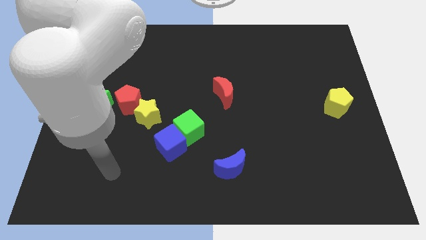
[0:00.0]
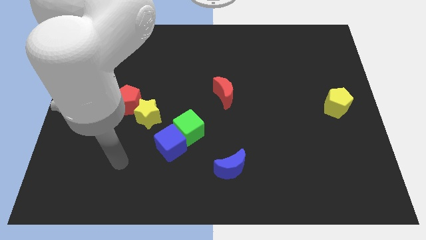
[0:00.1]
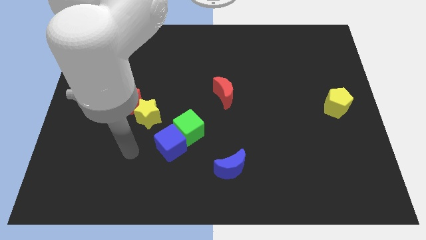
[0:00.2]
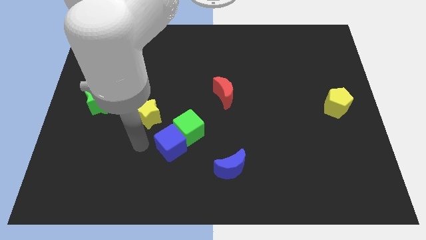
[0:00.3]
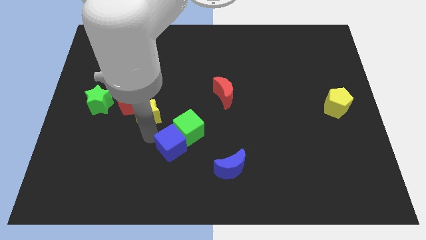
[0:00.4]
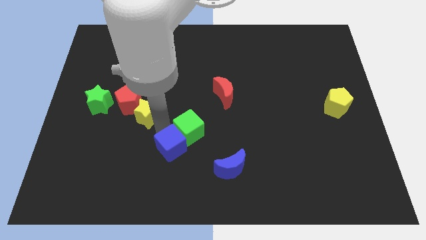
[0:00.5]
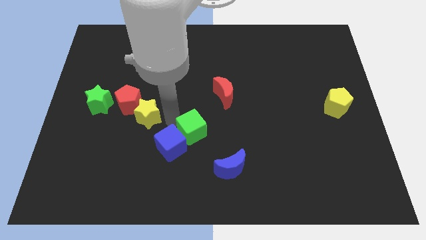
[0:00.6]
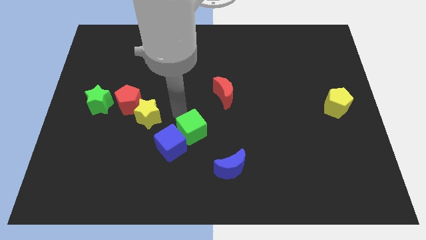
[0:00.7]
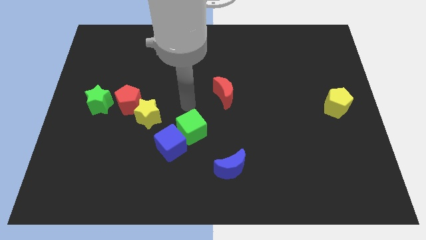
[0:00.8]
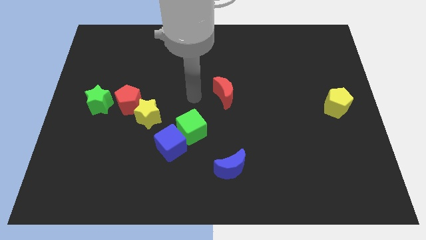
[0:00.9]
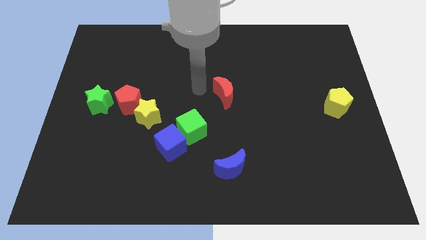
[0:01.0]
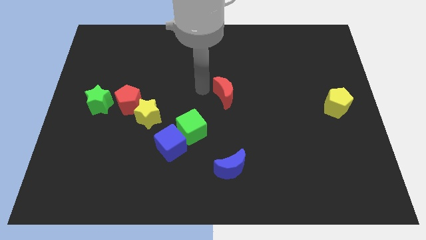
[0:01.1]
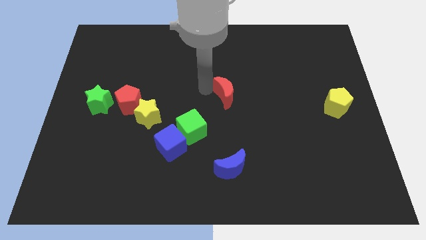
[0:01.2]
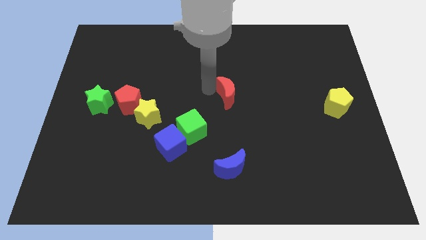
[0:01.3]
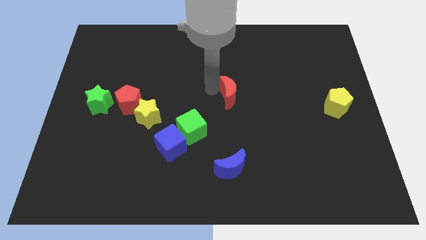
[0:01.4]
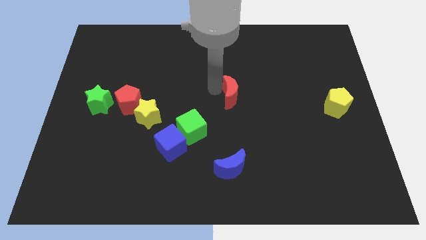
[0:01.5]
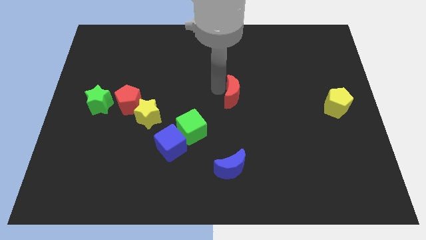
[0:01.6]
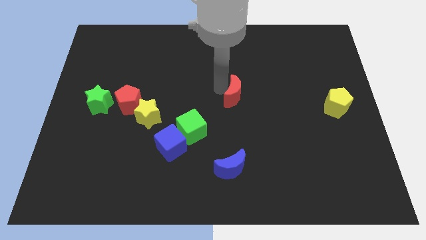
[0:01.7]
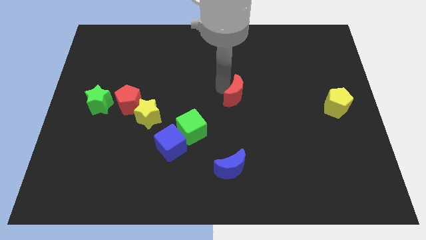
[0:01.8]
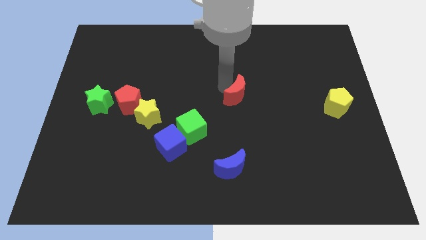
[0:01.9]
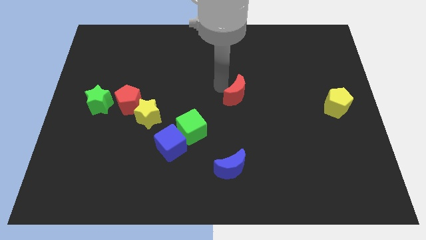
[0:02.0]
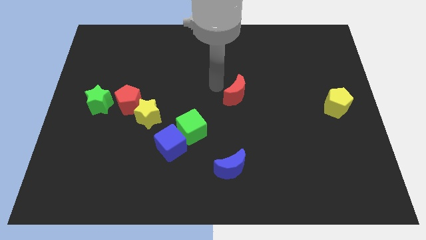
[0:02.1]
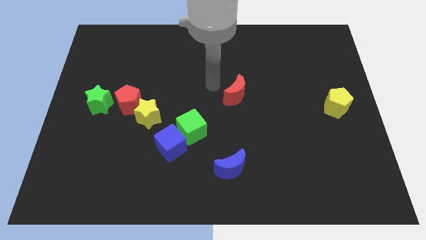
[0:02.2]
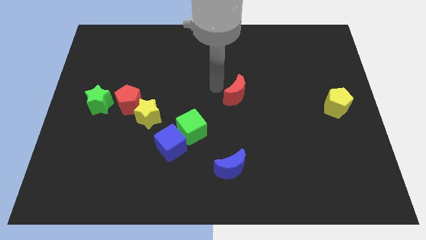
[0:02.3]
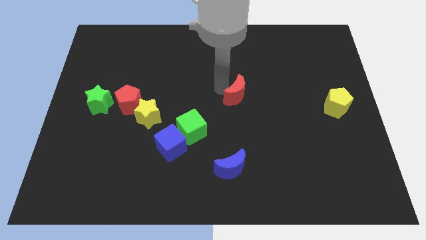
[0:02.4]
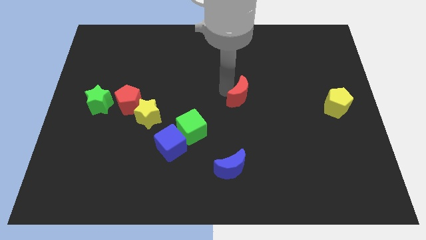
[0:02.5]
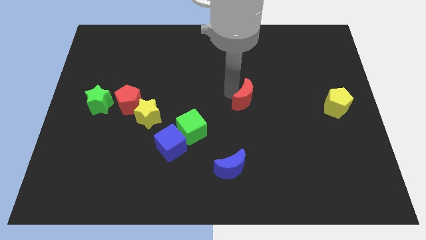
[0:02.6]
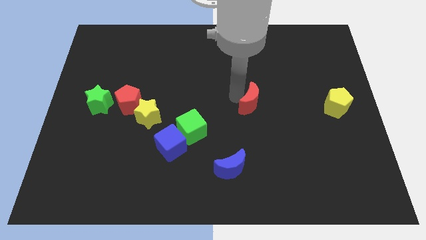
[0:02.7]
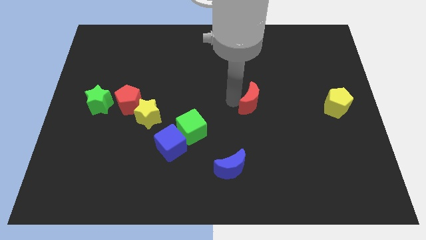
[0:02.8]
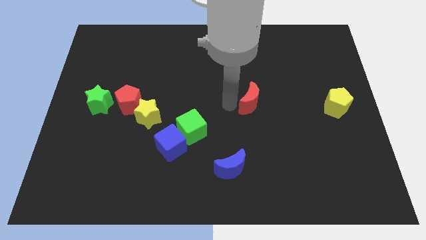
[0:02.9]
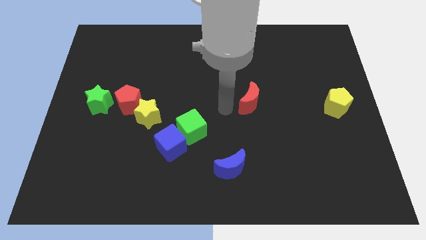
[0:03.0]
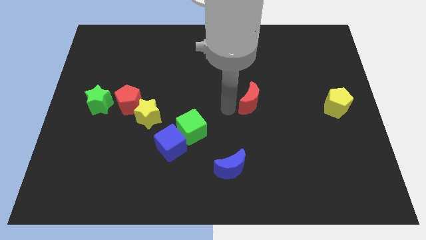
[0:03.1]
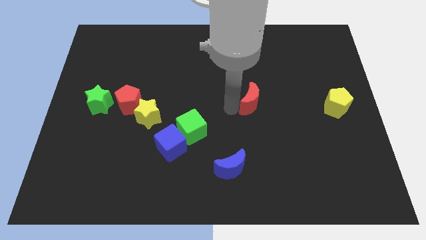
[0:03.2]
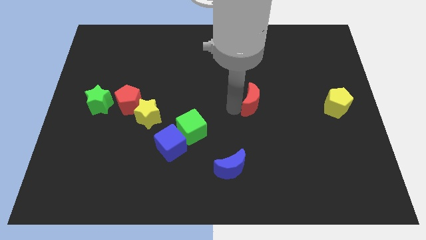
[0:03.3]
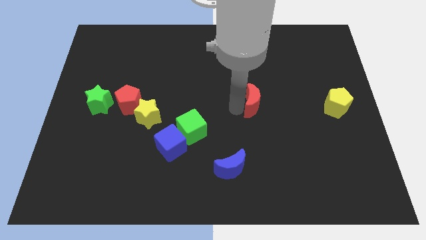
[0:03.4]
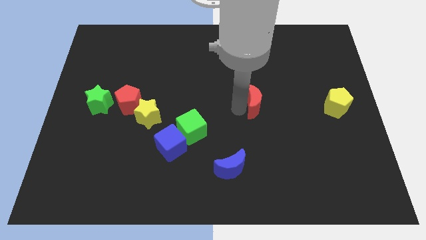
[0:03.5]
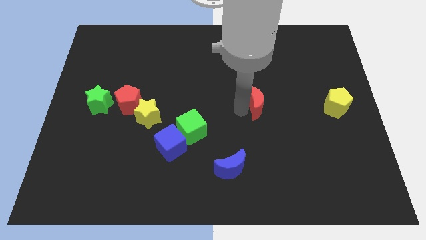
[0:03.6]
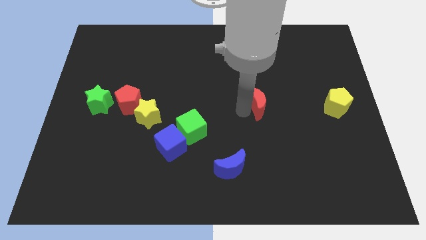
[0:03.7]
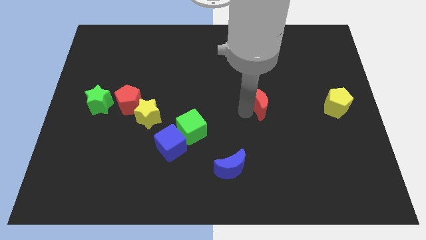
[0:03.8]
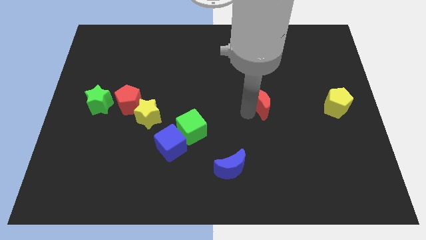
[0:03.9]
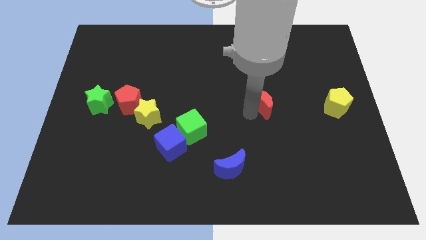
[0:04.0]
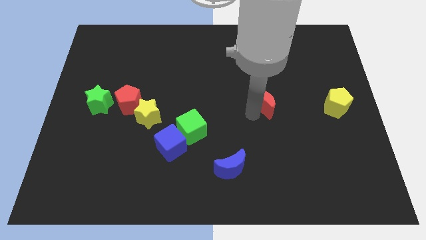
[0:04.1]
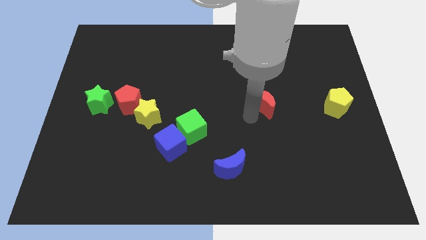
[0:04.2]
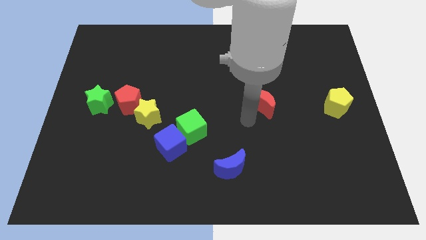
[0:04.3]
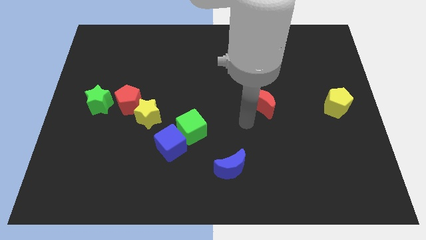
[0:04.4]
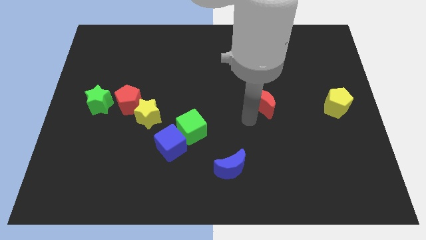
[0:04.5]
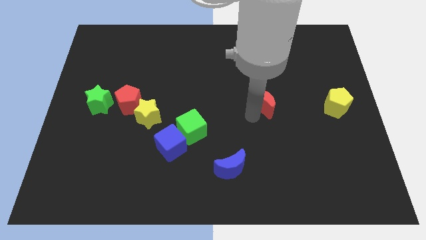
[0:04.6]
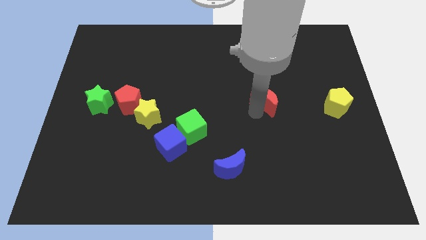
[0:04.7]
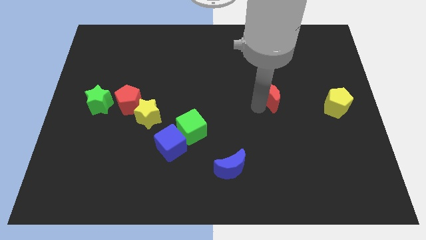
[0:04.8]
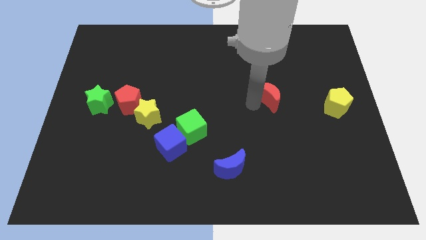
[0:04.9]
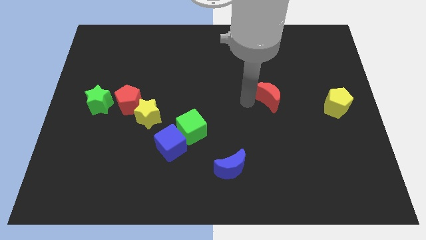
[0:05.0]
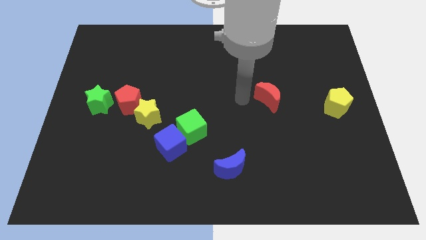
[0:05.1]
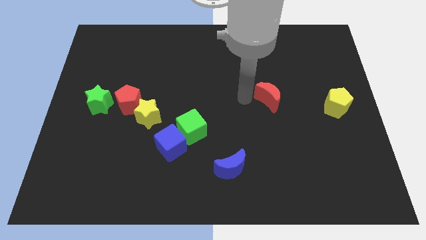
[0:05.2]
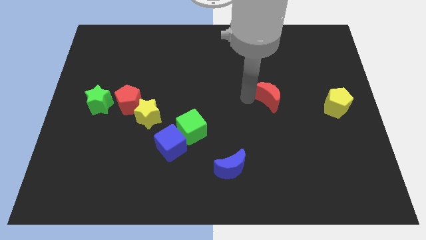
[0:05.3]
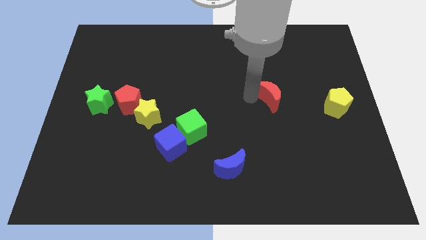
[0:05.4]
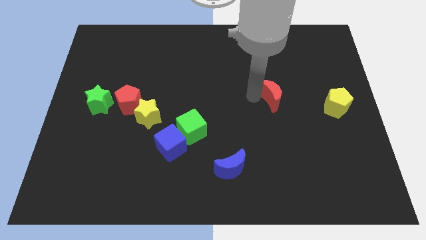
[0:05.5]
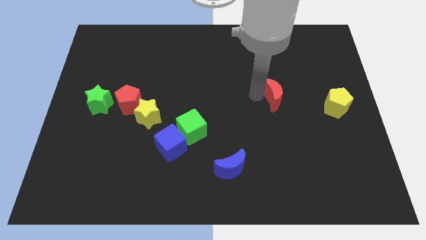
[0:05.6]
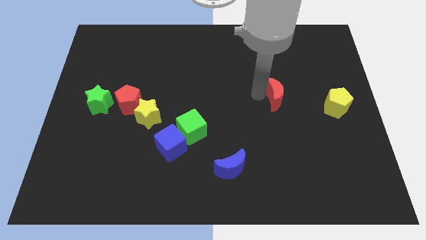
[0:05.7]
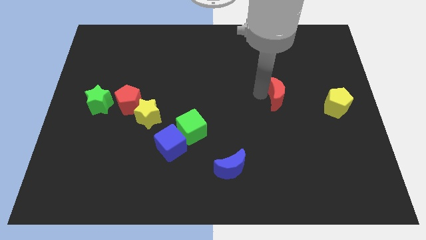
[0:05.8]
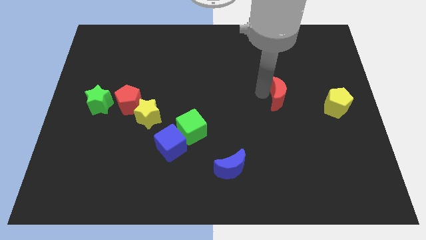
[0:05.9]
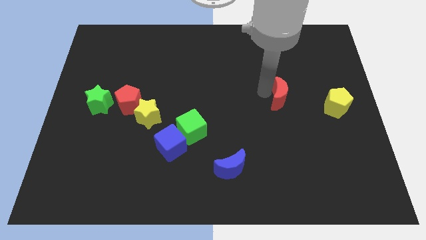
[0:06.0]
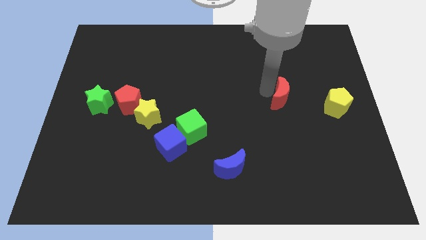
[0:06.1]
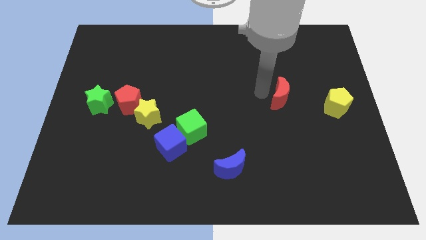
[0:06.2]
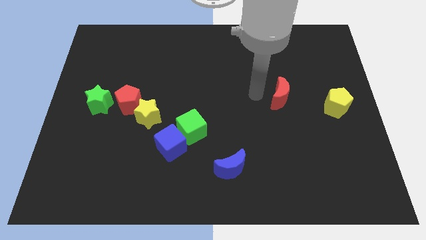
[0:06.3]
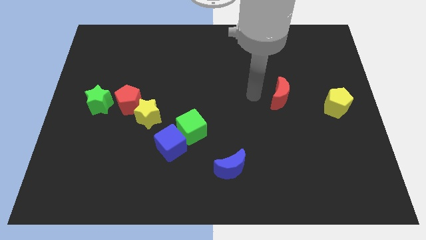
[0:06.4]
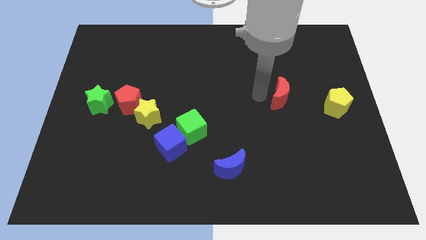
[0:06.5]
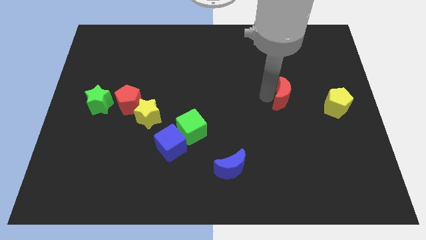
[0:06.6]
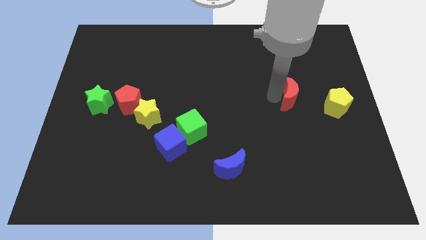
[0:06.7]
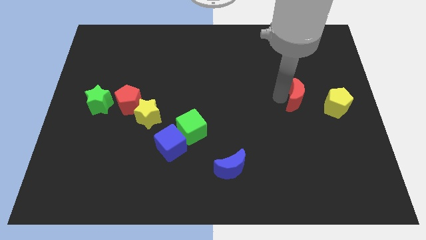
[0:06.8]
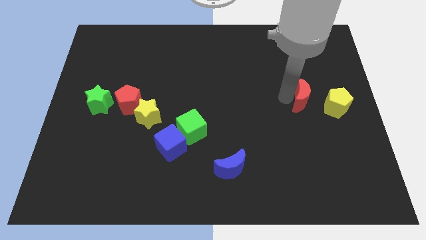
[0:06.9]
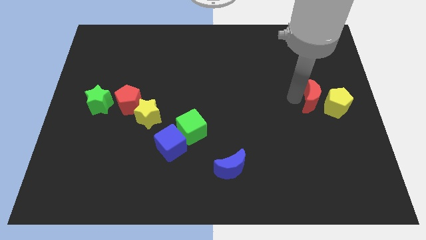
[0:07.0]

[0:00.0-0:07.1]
slide the red moon towards the yellow pentagon

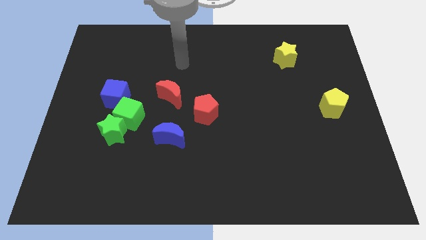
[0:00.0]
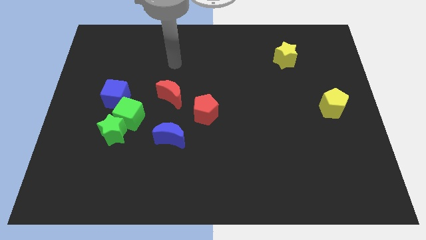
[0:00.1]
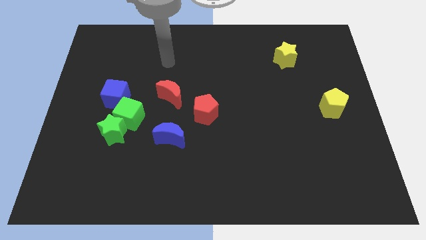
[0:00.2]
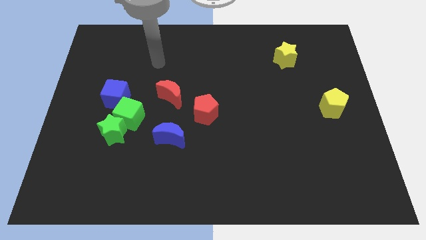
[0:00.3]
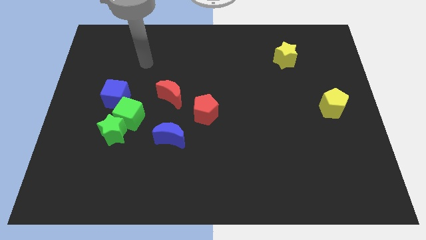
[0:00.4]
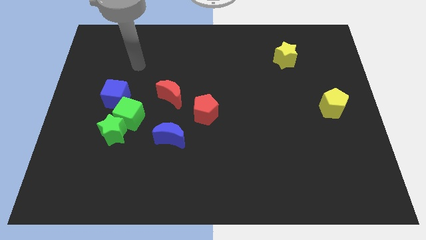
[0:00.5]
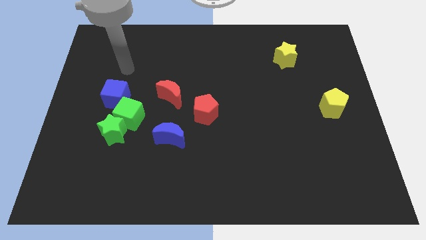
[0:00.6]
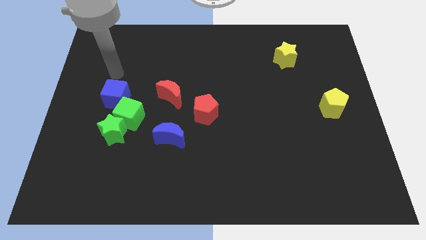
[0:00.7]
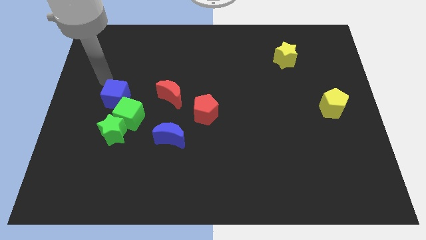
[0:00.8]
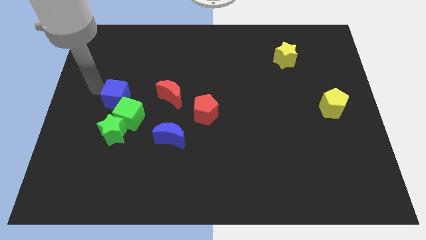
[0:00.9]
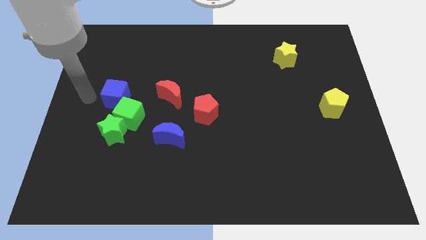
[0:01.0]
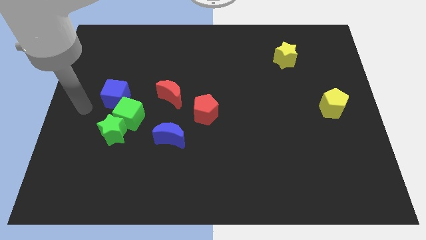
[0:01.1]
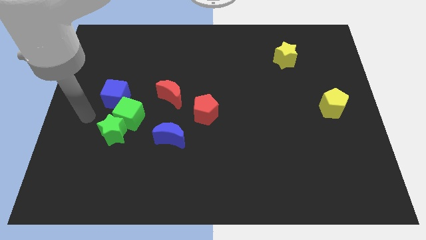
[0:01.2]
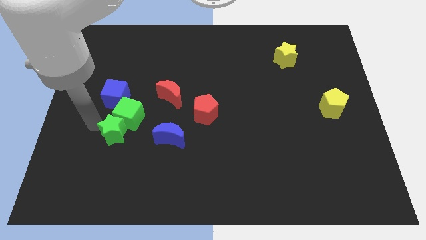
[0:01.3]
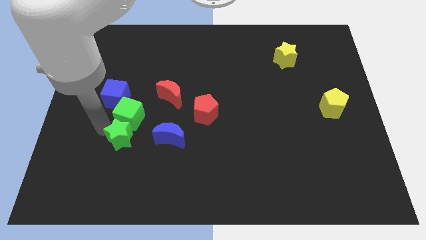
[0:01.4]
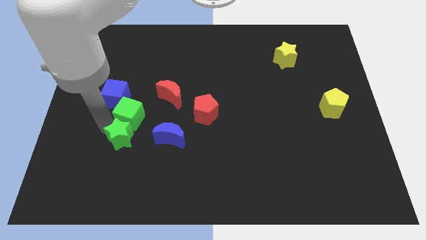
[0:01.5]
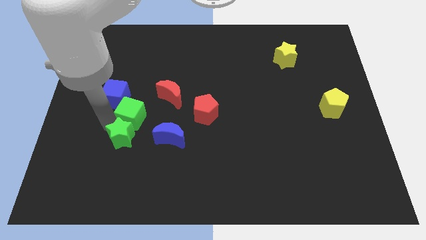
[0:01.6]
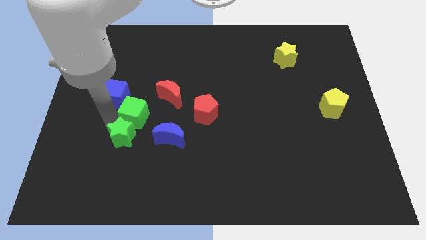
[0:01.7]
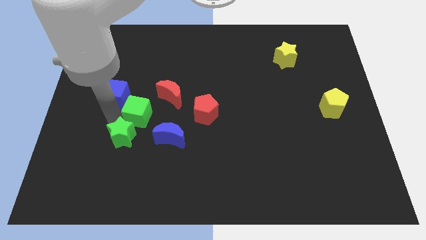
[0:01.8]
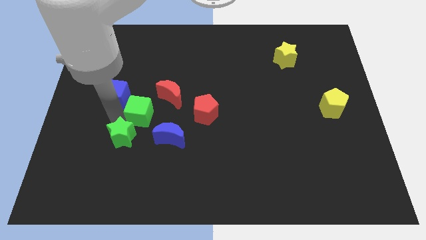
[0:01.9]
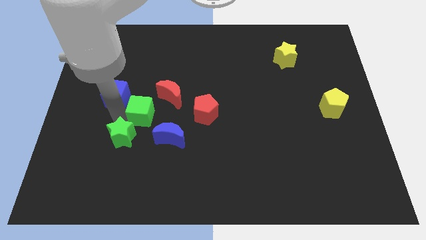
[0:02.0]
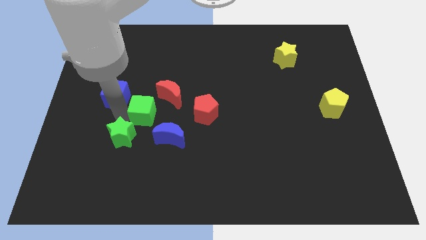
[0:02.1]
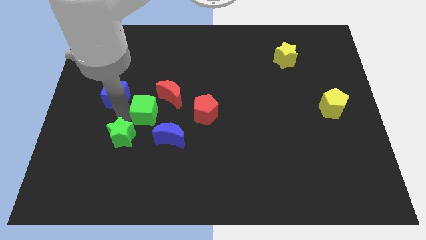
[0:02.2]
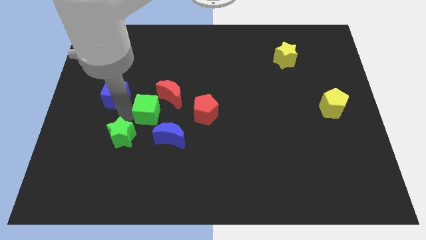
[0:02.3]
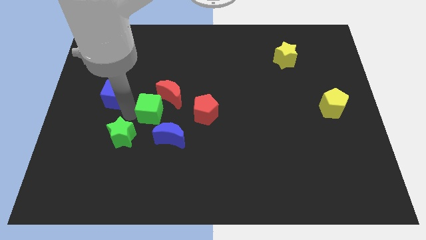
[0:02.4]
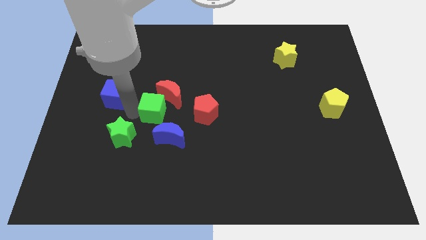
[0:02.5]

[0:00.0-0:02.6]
slide the green cube close to the red moon
